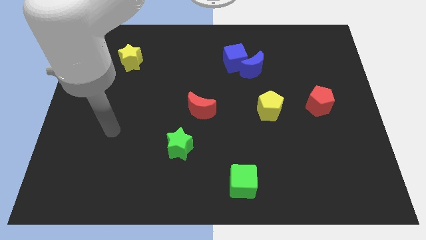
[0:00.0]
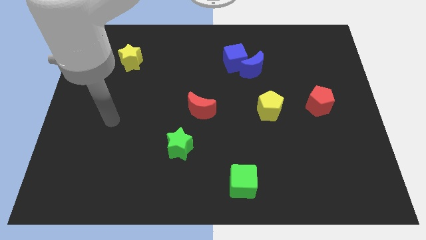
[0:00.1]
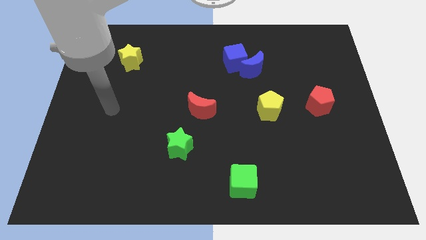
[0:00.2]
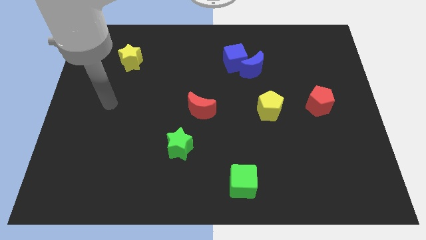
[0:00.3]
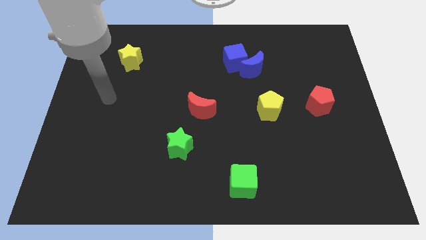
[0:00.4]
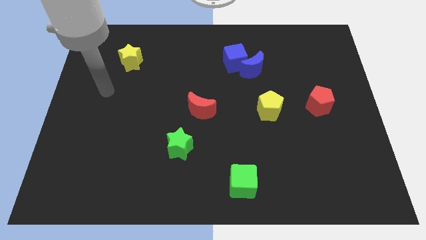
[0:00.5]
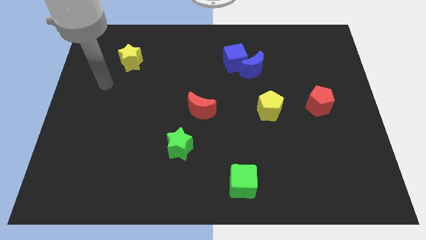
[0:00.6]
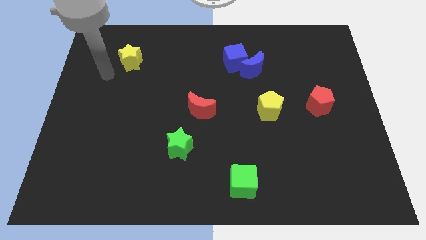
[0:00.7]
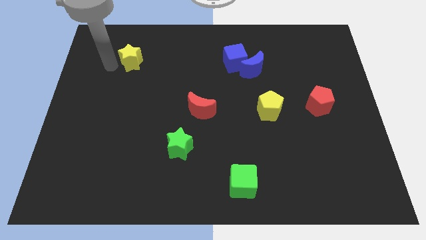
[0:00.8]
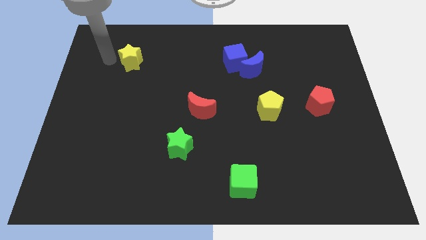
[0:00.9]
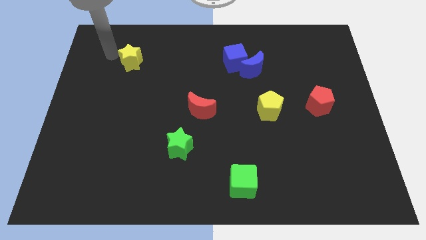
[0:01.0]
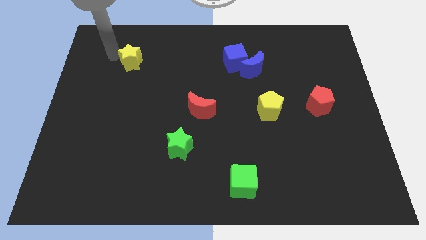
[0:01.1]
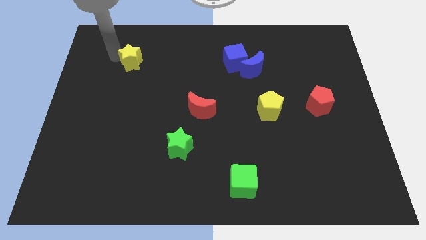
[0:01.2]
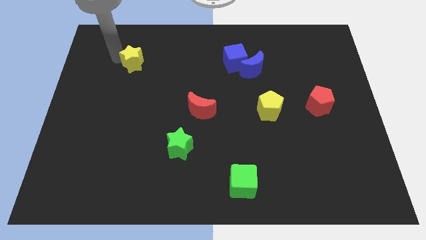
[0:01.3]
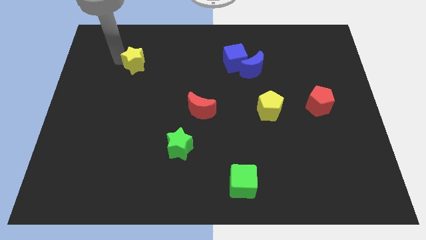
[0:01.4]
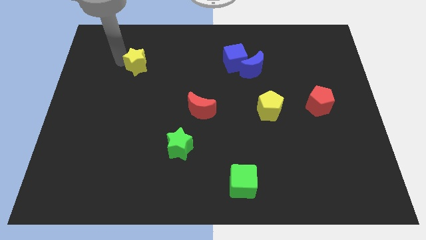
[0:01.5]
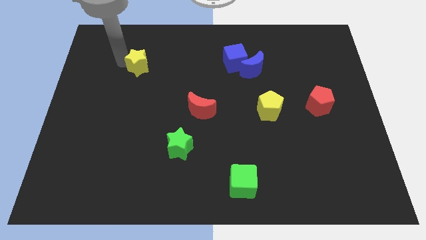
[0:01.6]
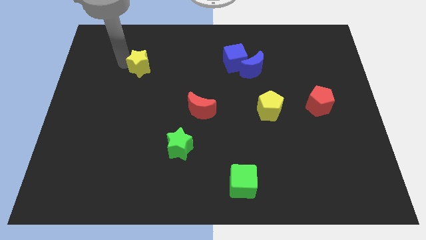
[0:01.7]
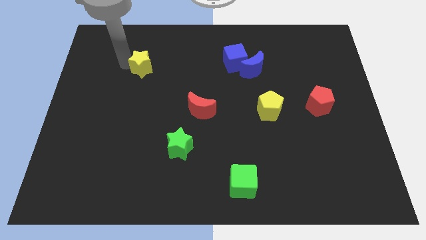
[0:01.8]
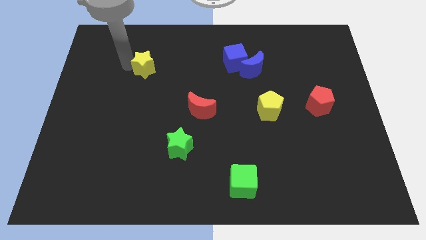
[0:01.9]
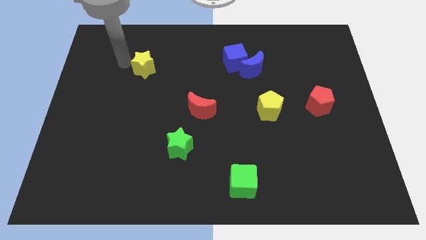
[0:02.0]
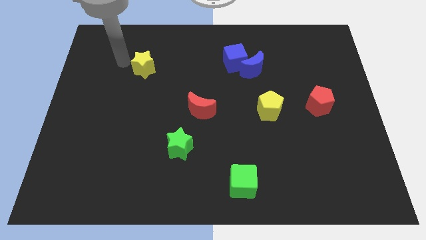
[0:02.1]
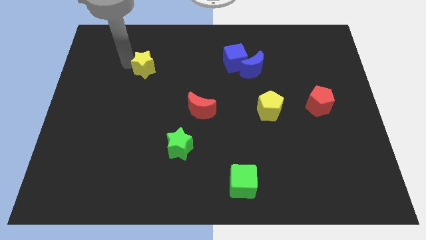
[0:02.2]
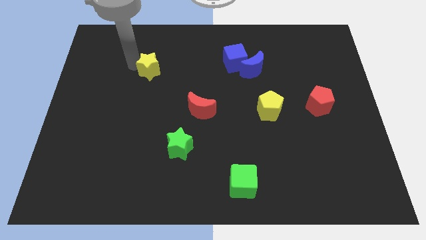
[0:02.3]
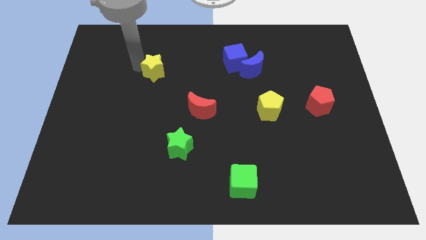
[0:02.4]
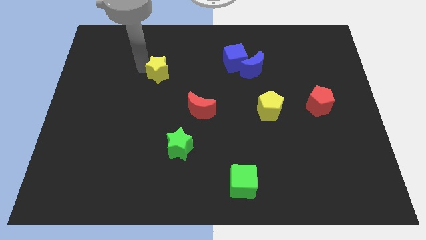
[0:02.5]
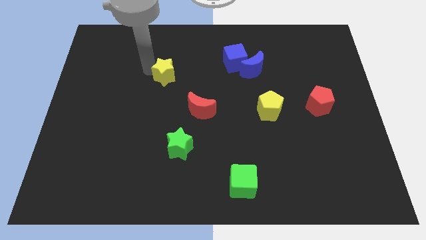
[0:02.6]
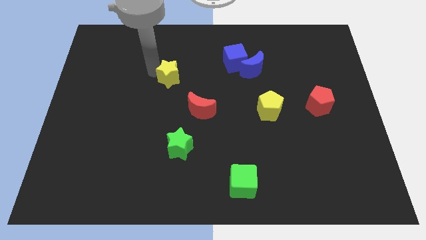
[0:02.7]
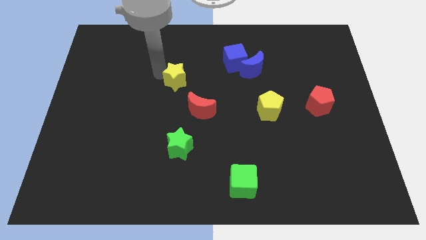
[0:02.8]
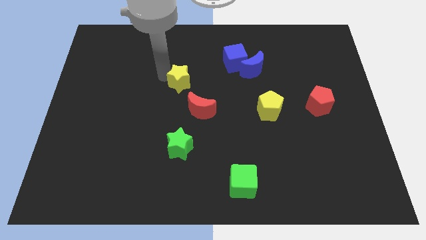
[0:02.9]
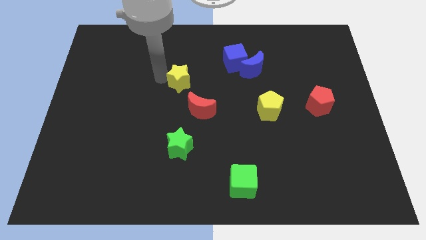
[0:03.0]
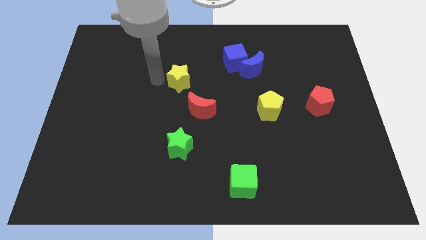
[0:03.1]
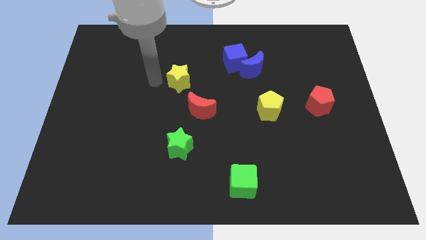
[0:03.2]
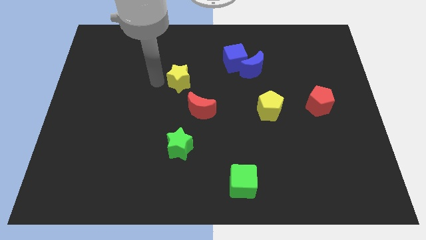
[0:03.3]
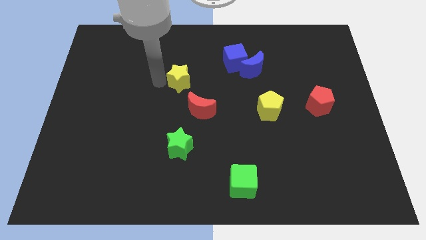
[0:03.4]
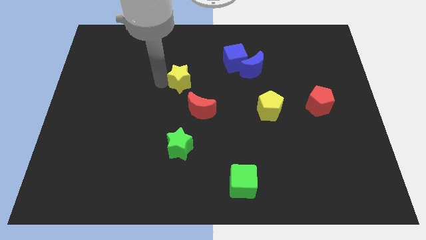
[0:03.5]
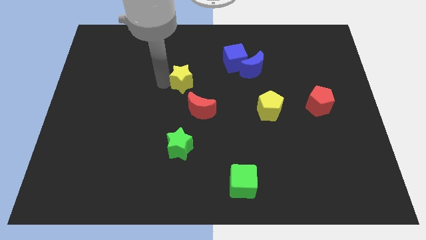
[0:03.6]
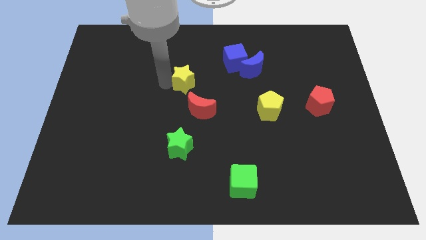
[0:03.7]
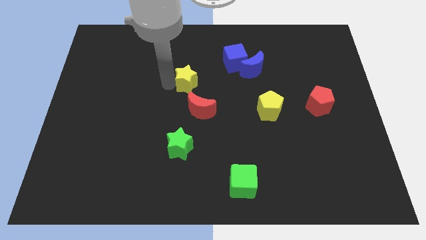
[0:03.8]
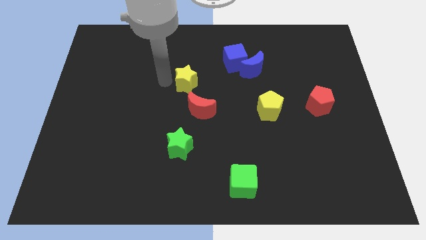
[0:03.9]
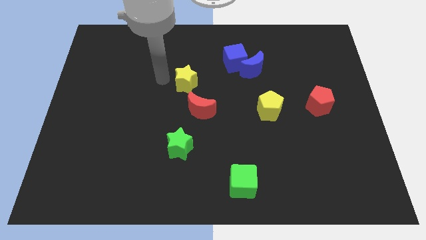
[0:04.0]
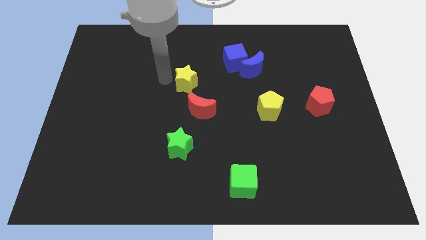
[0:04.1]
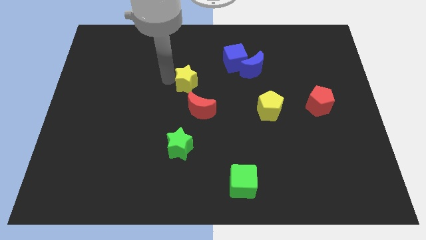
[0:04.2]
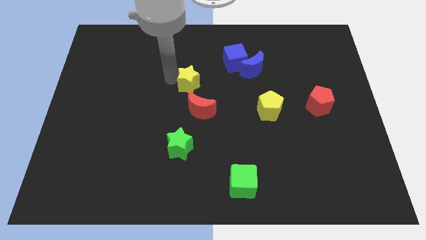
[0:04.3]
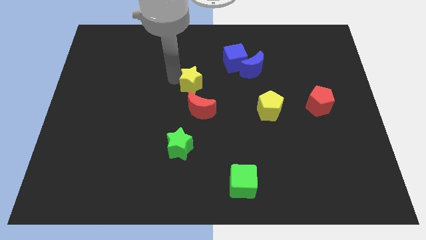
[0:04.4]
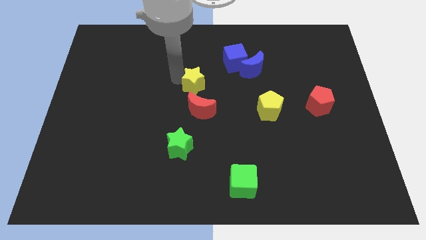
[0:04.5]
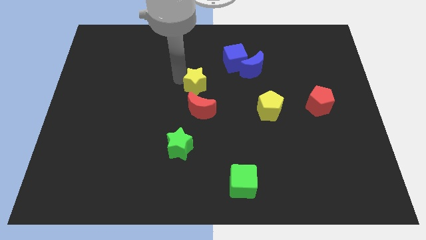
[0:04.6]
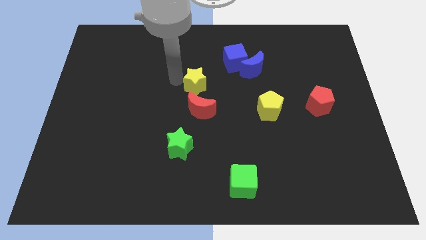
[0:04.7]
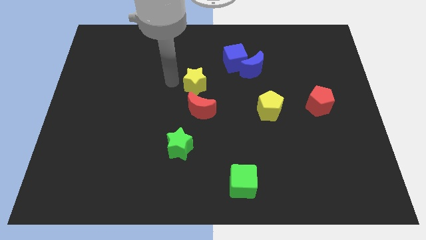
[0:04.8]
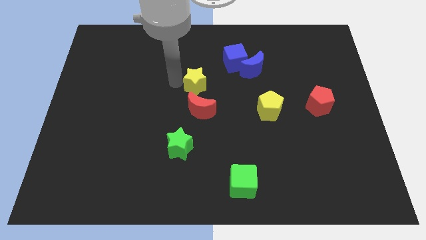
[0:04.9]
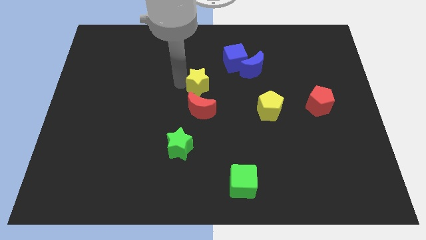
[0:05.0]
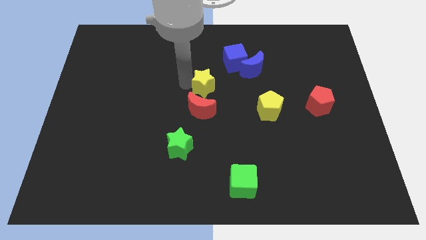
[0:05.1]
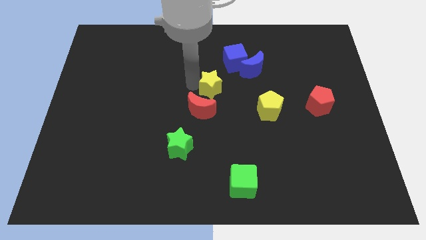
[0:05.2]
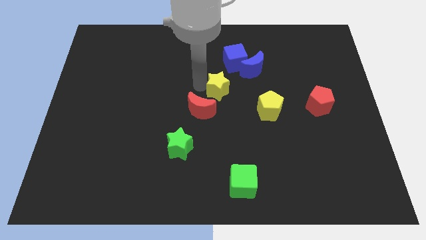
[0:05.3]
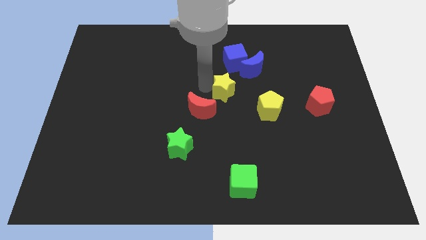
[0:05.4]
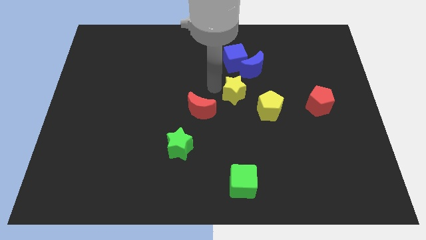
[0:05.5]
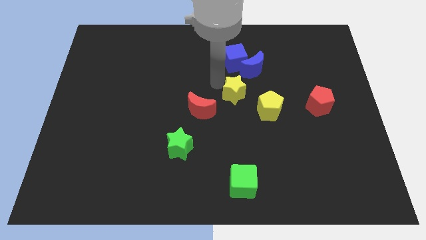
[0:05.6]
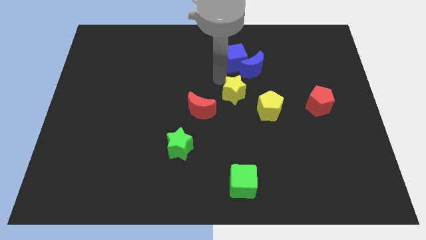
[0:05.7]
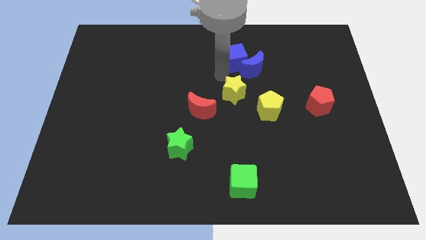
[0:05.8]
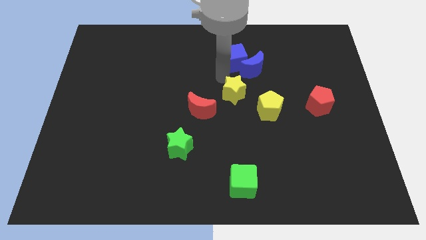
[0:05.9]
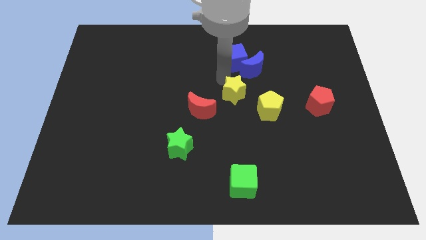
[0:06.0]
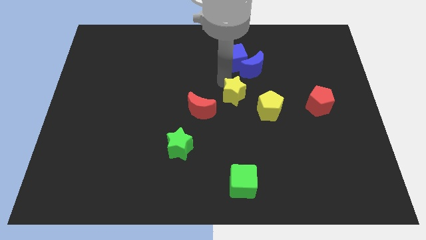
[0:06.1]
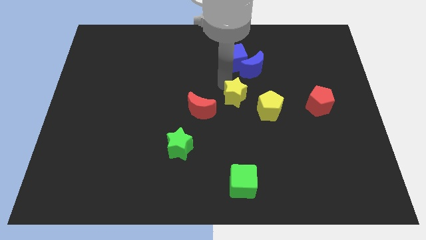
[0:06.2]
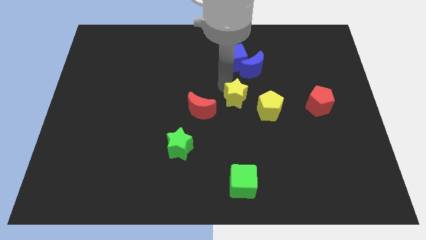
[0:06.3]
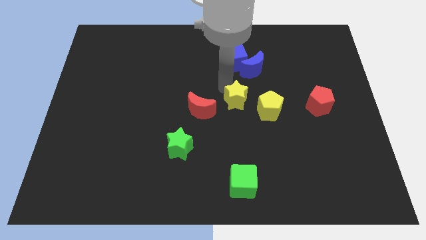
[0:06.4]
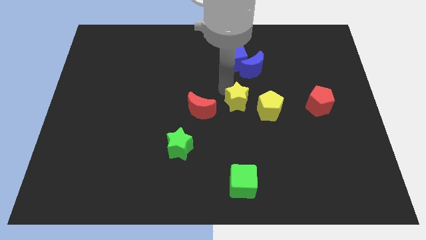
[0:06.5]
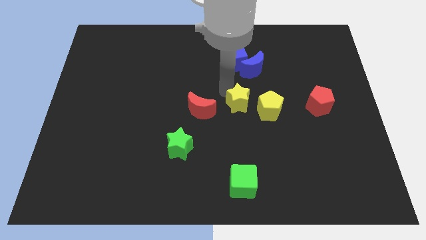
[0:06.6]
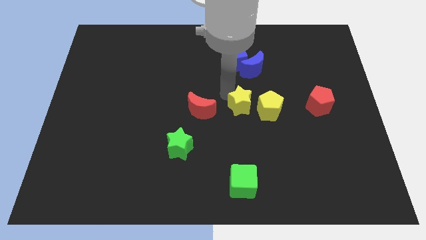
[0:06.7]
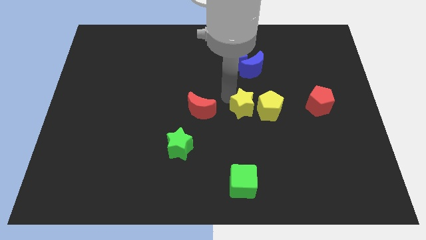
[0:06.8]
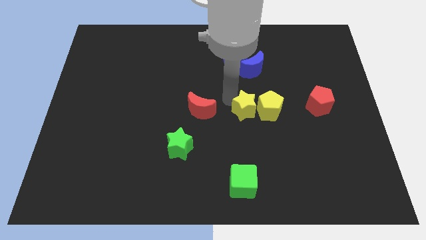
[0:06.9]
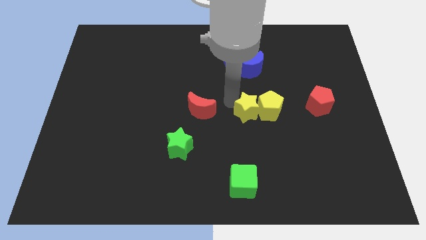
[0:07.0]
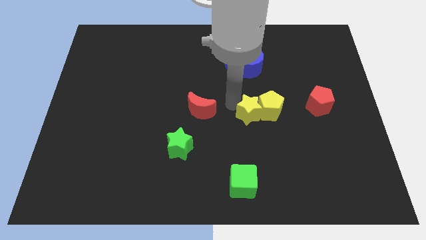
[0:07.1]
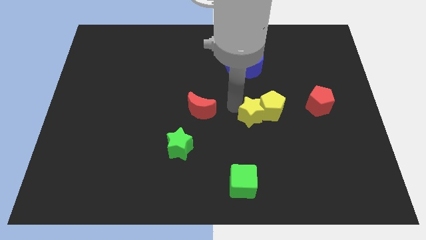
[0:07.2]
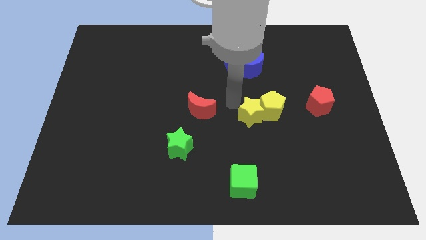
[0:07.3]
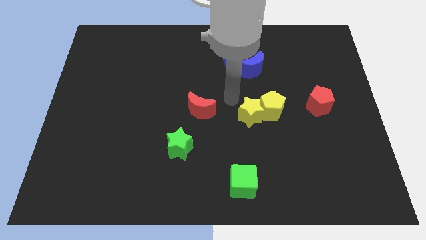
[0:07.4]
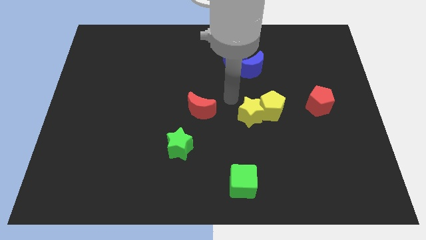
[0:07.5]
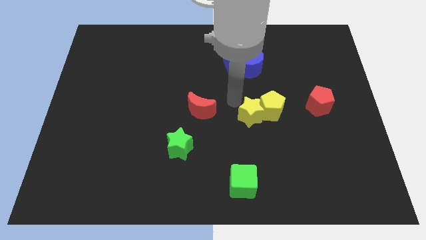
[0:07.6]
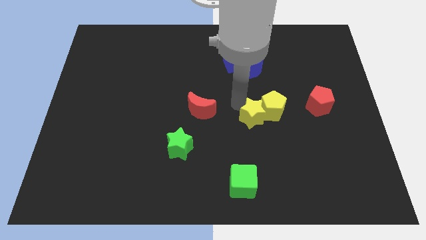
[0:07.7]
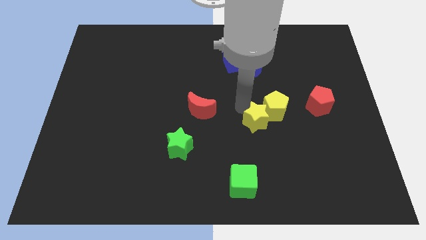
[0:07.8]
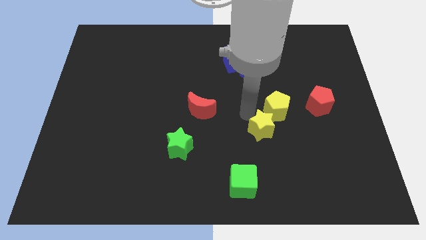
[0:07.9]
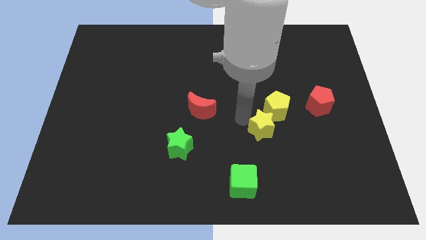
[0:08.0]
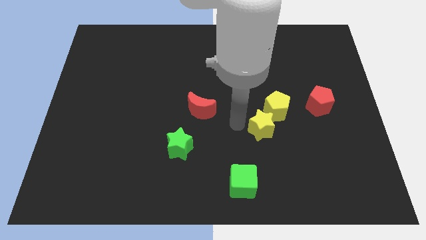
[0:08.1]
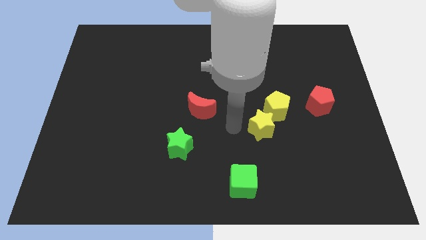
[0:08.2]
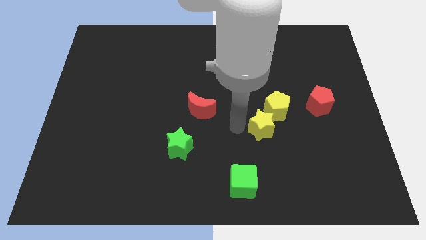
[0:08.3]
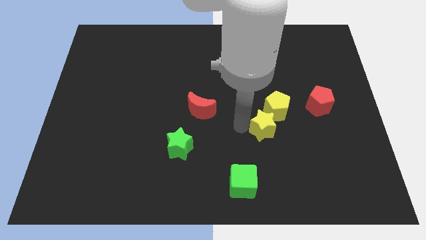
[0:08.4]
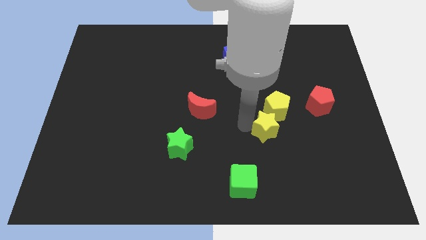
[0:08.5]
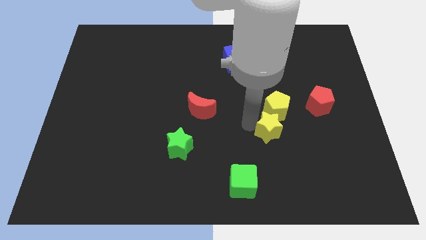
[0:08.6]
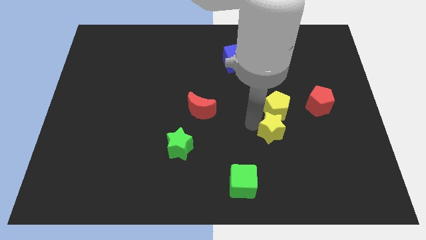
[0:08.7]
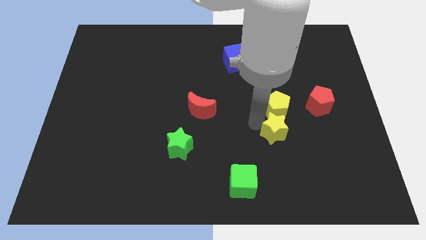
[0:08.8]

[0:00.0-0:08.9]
move the yellow star to the bottom right of the yellow pentagon
